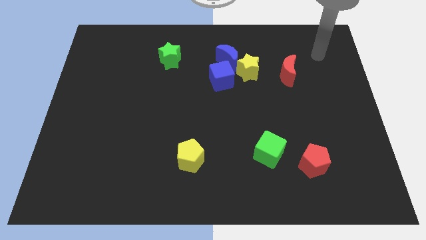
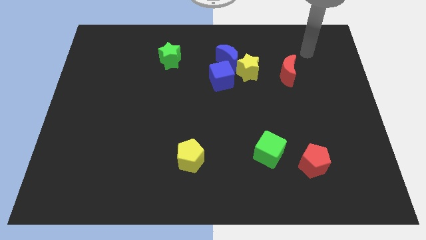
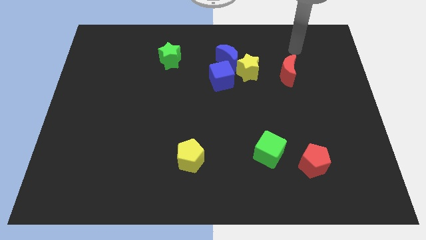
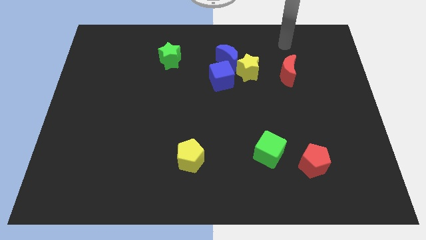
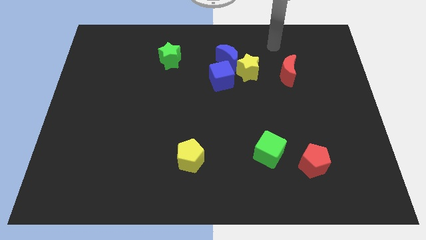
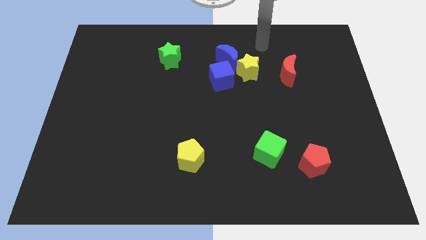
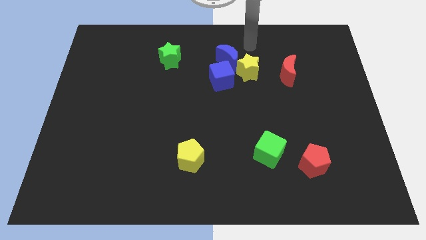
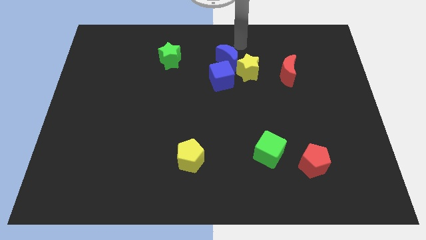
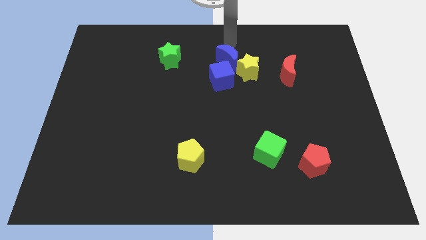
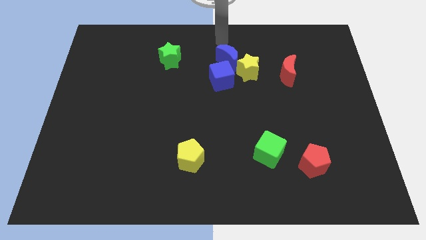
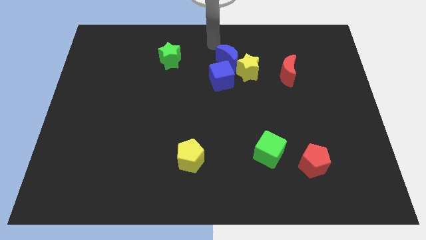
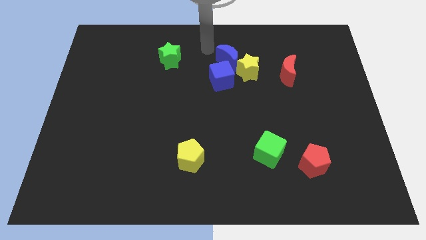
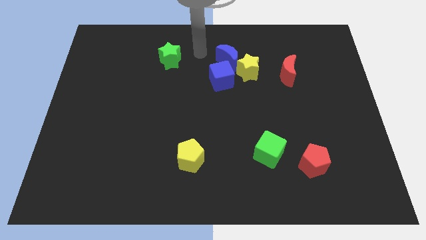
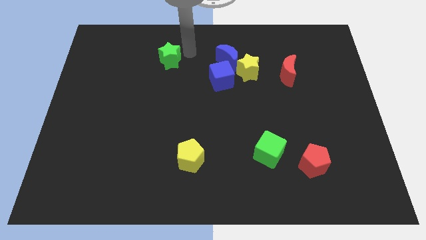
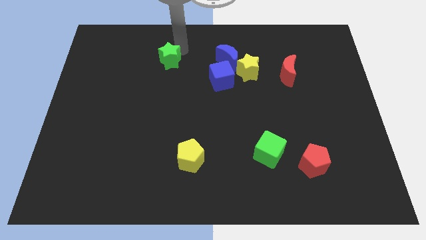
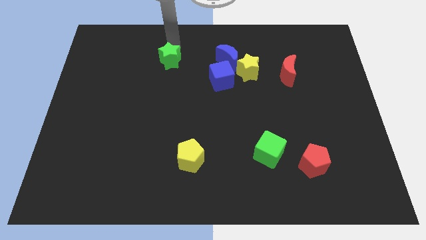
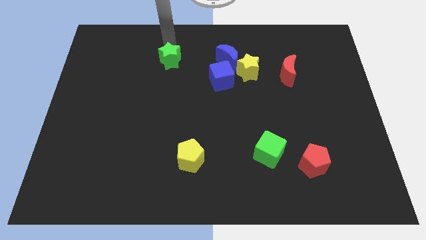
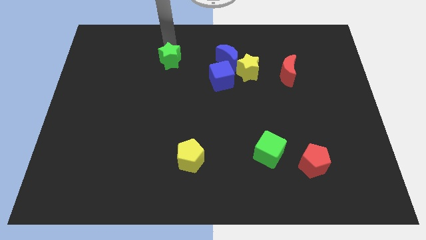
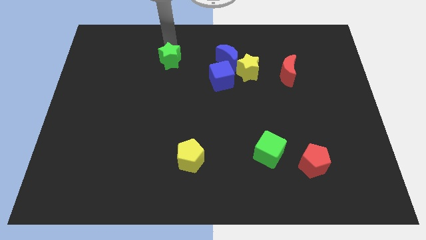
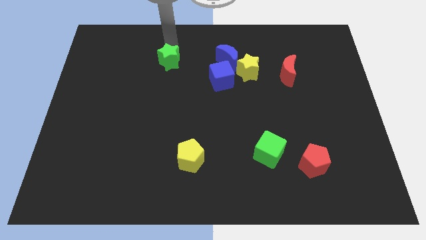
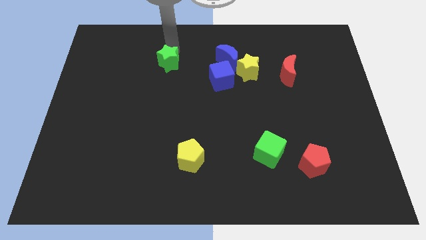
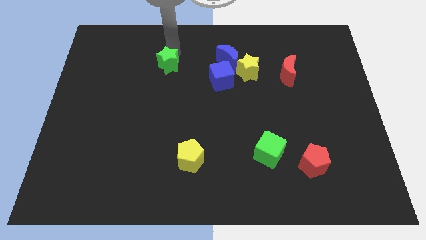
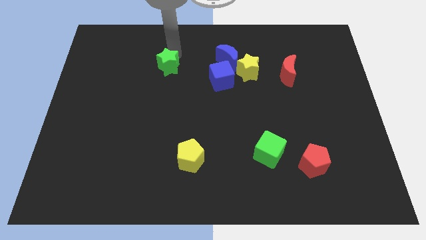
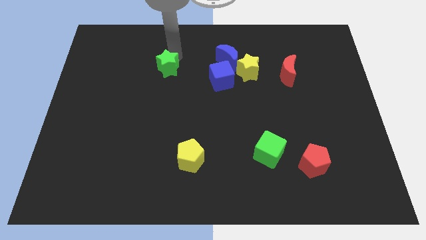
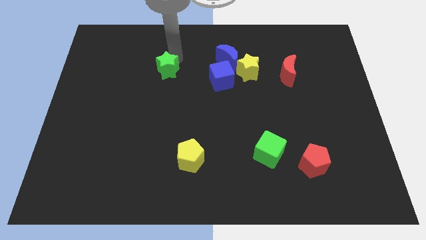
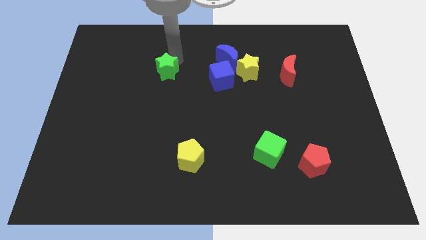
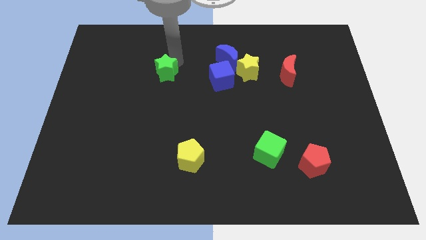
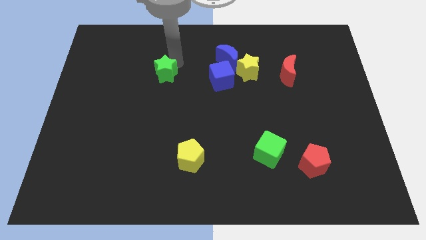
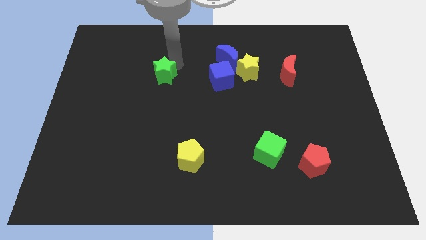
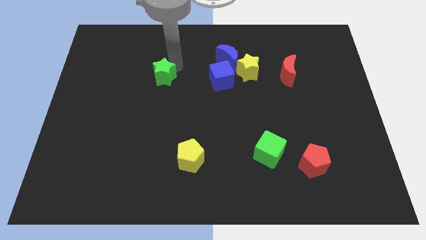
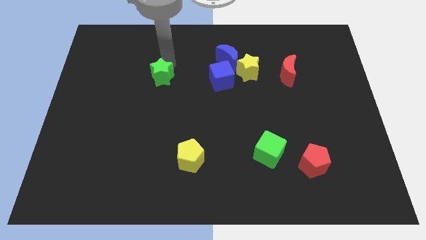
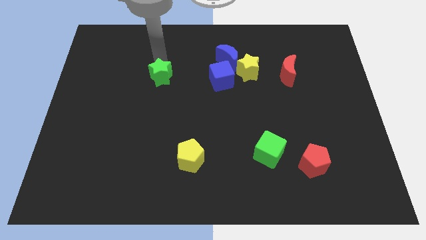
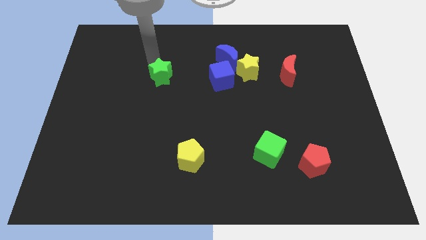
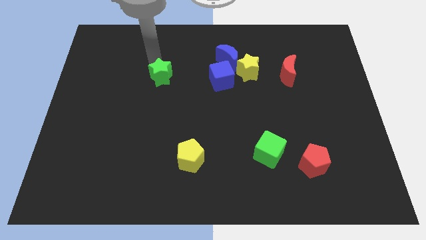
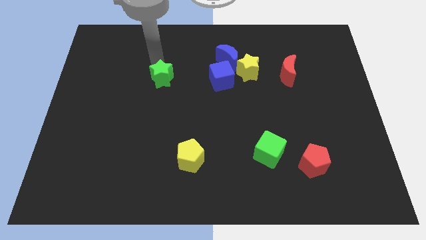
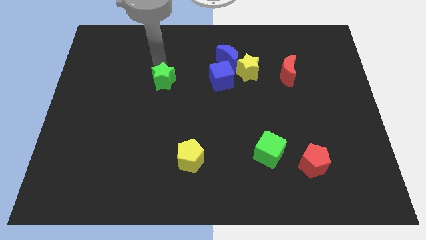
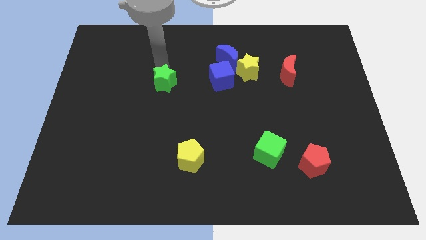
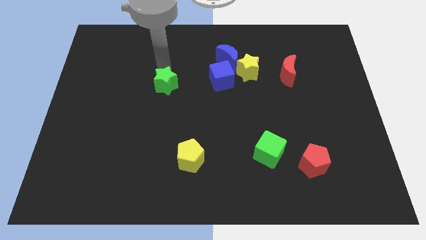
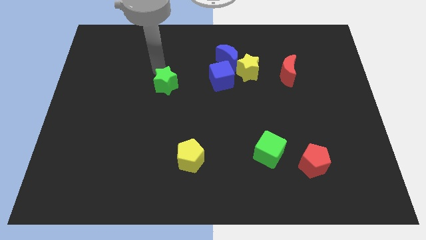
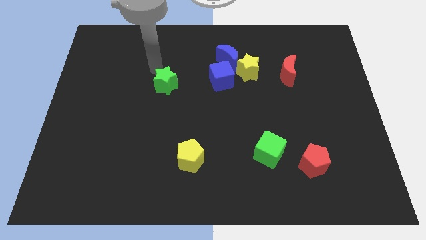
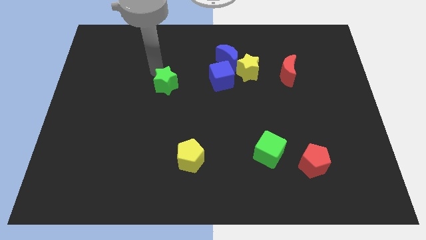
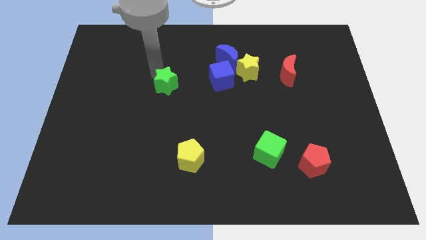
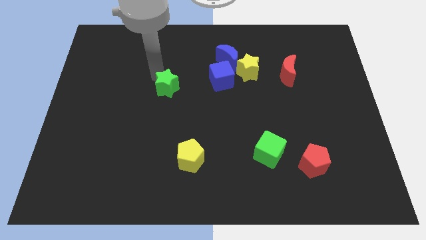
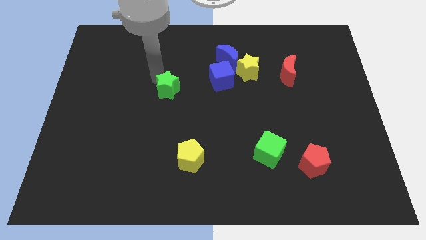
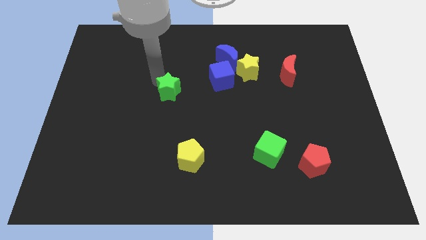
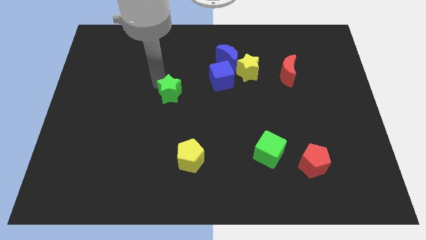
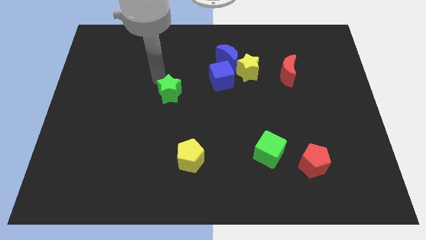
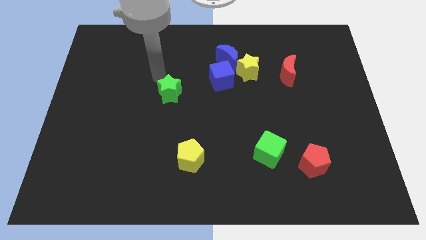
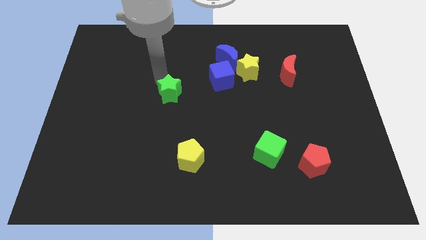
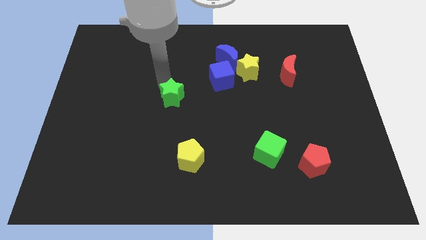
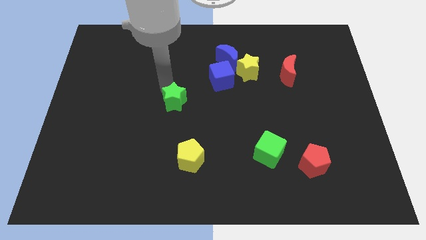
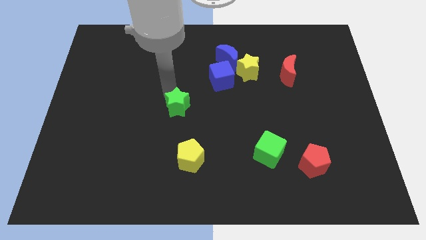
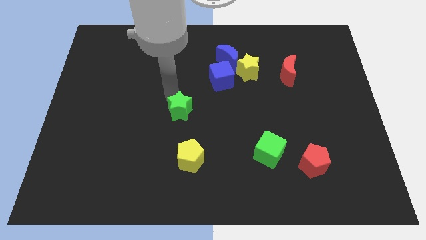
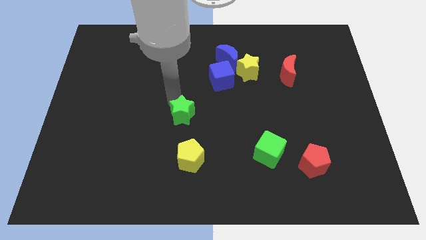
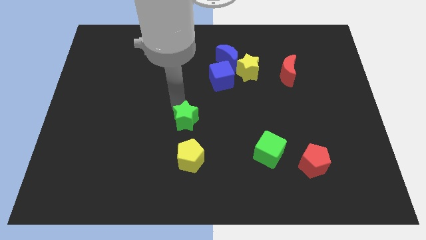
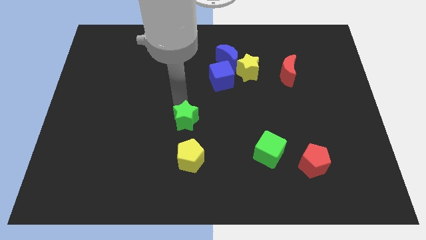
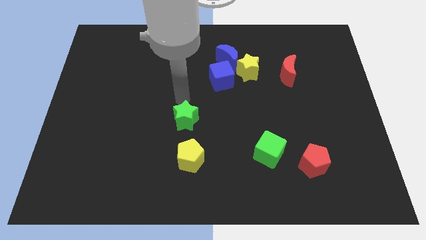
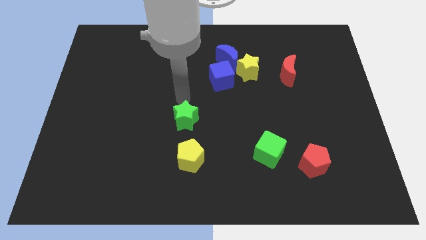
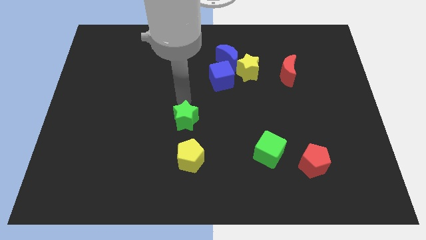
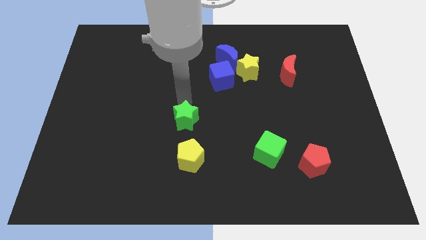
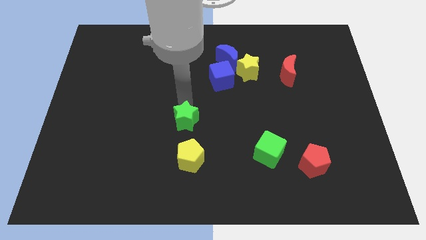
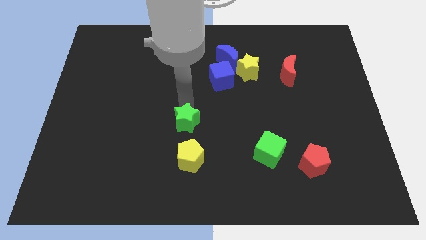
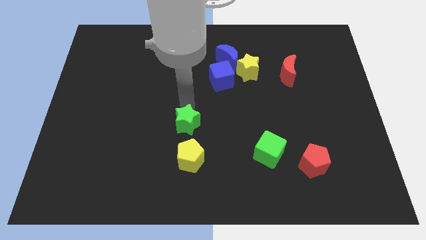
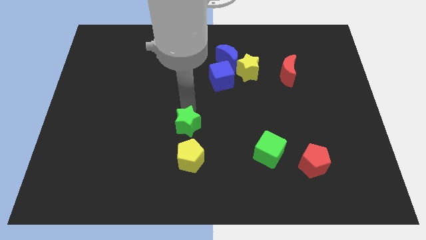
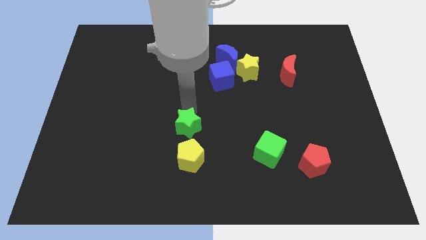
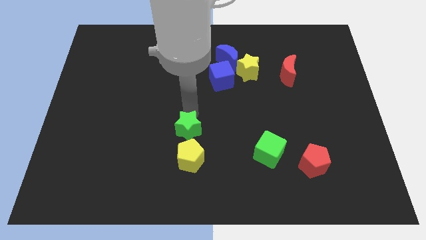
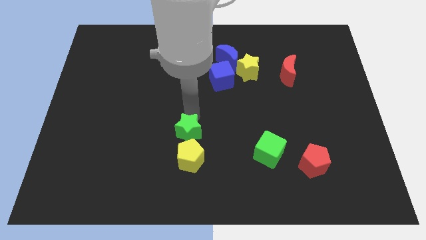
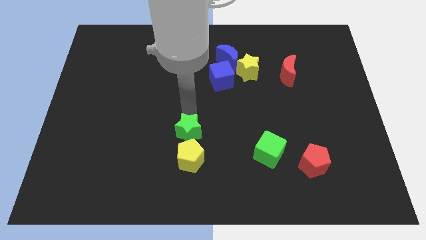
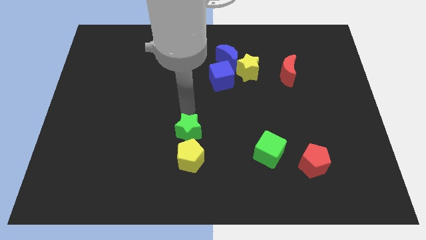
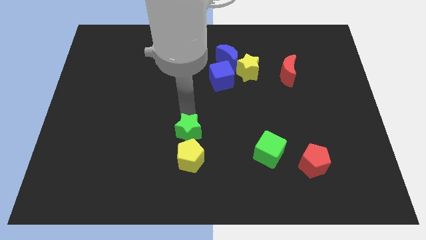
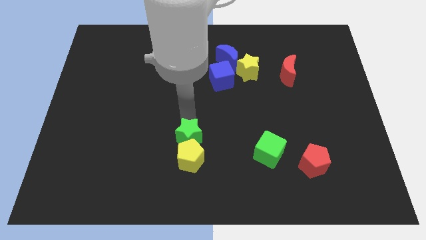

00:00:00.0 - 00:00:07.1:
move the green star to the yellow pentagon

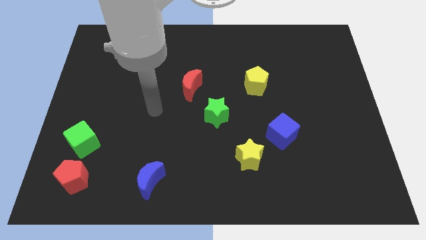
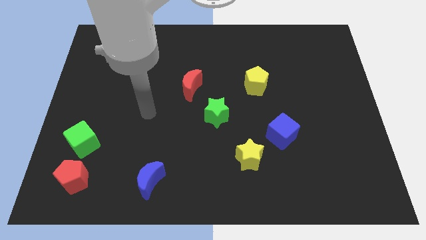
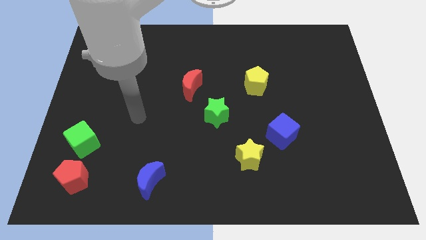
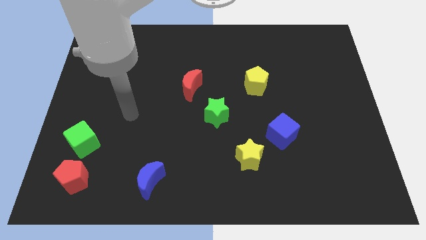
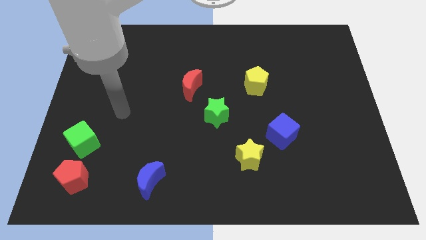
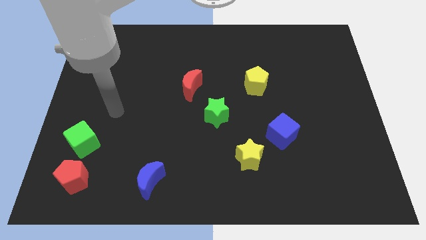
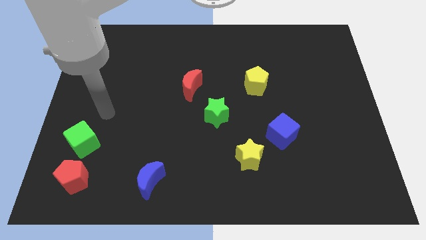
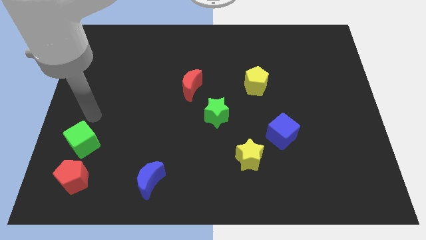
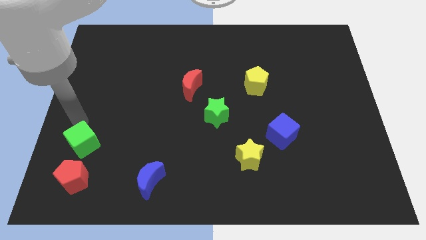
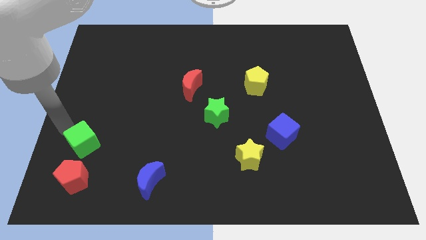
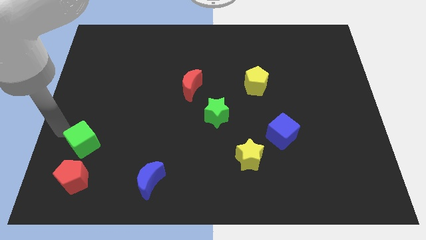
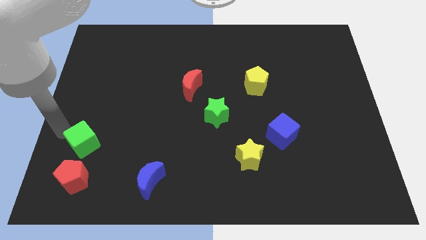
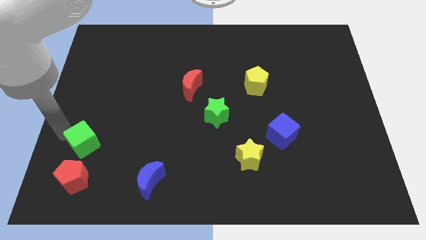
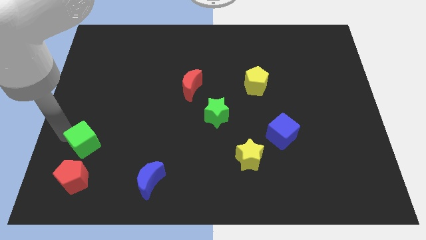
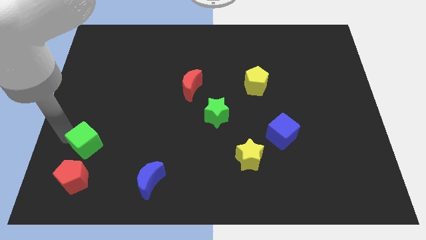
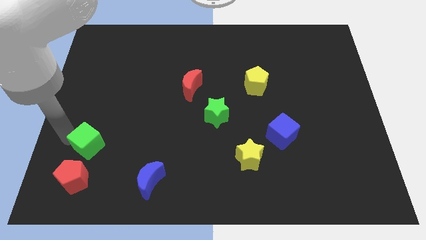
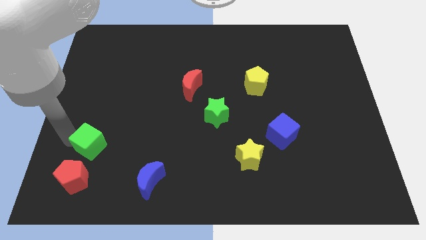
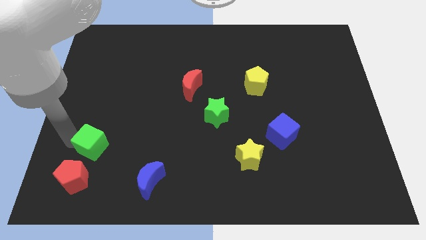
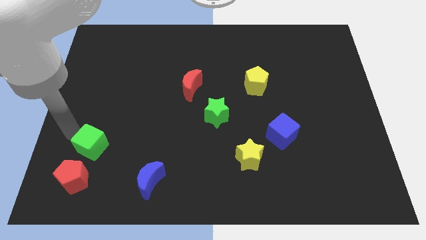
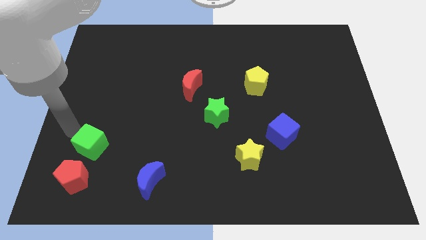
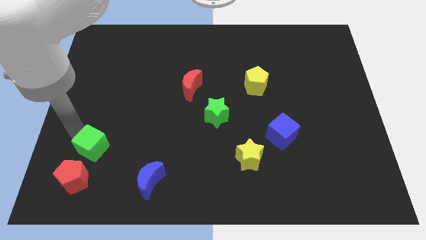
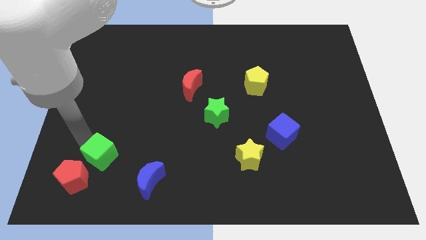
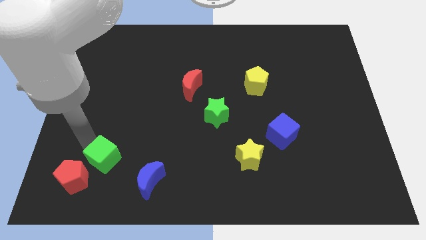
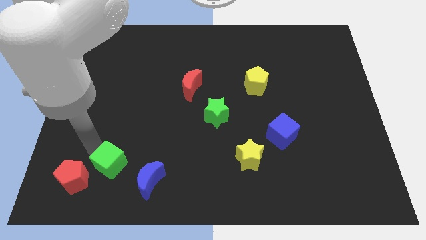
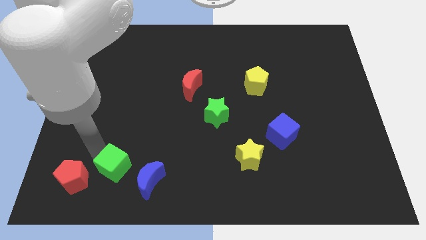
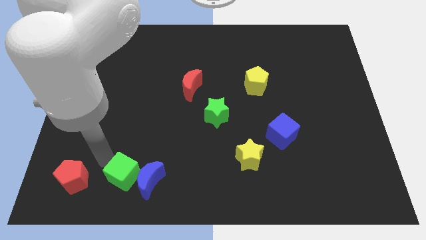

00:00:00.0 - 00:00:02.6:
slide the green cube close to the blue moon
